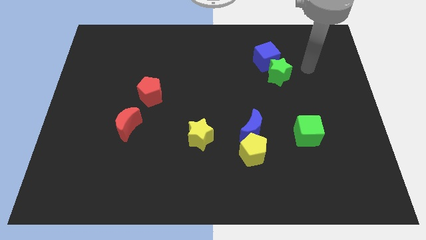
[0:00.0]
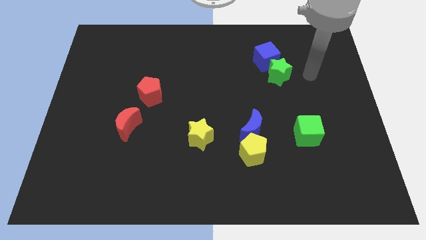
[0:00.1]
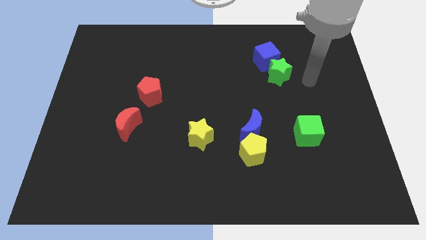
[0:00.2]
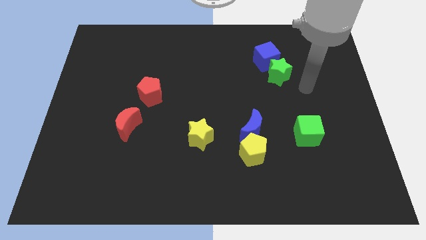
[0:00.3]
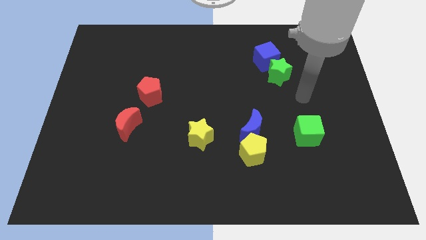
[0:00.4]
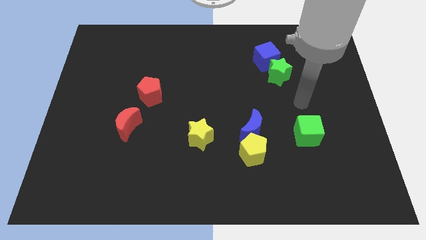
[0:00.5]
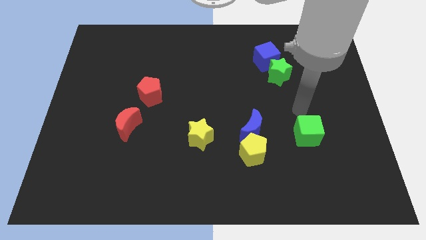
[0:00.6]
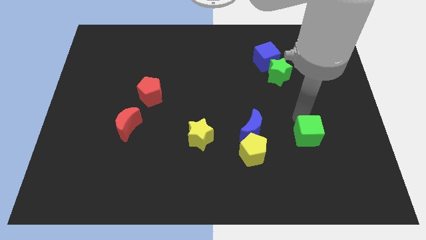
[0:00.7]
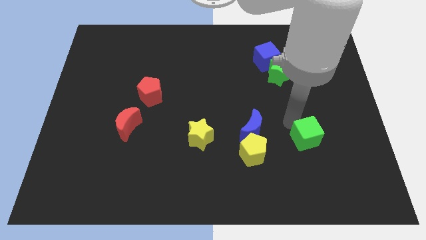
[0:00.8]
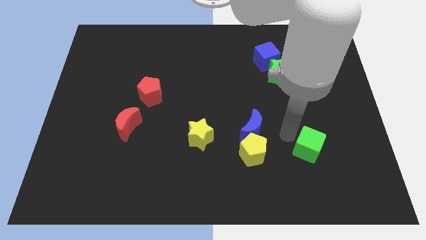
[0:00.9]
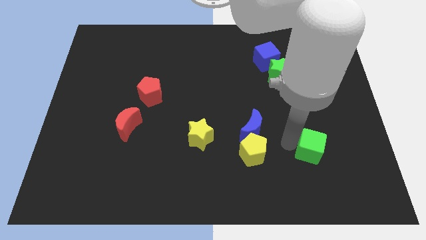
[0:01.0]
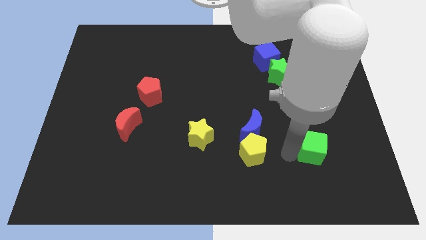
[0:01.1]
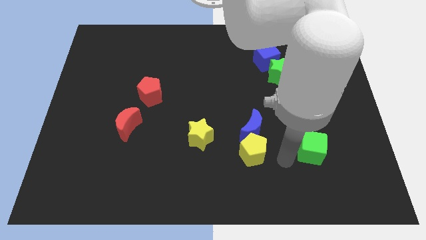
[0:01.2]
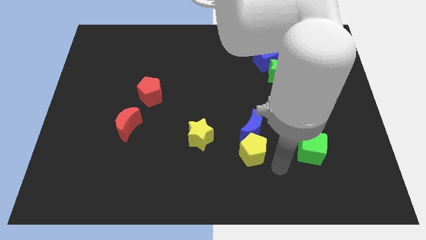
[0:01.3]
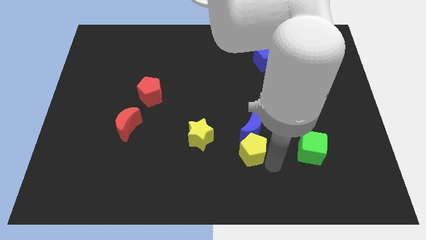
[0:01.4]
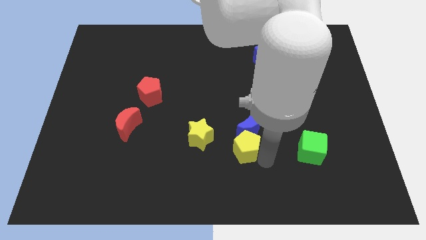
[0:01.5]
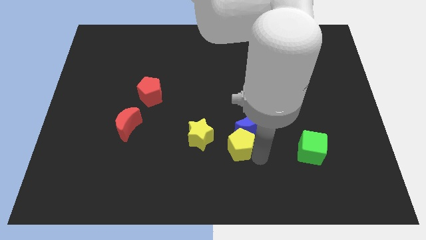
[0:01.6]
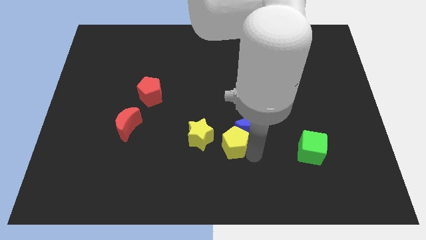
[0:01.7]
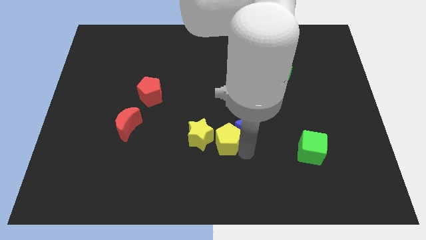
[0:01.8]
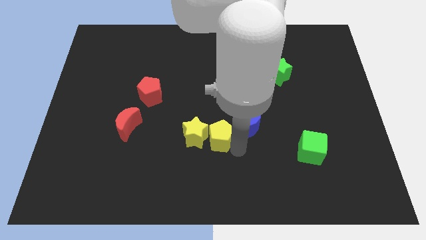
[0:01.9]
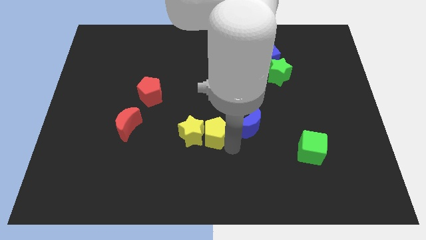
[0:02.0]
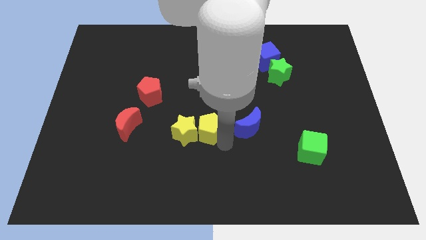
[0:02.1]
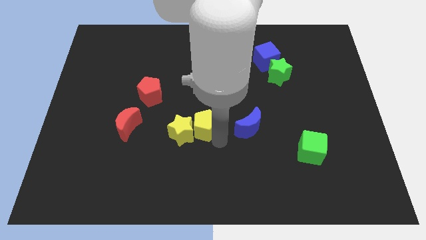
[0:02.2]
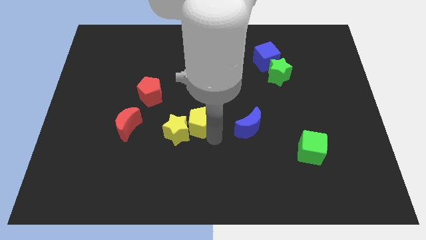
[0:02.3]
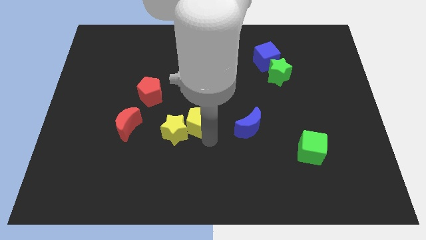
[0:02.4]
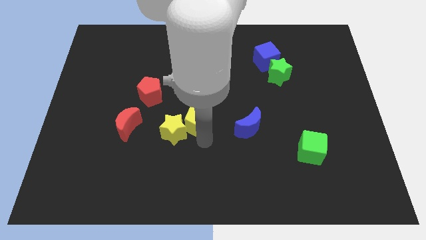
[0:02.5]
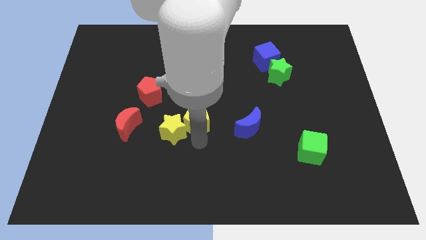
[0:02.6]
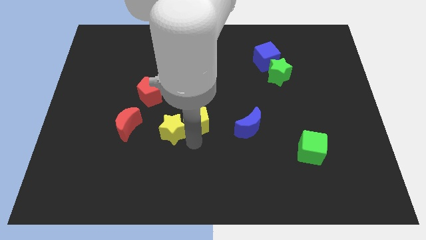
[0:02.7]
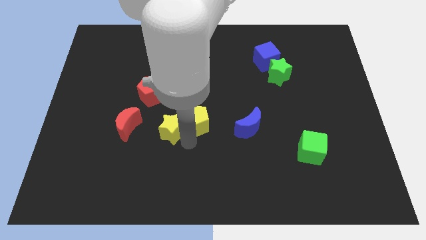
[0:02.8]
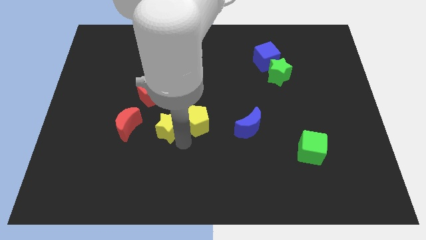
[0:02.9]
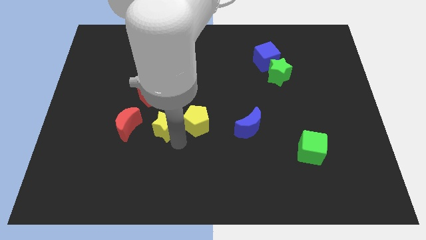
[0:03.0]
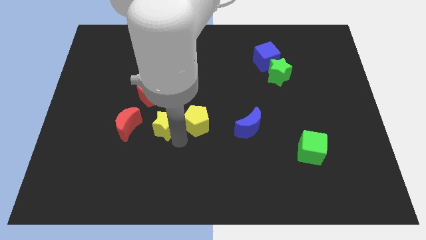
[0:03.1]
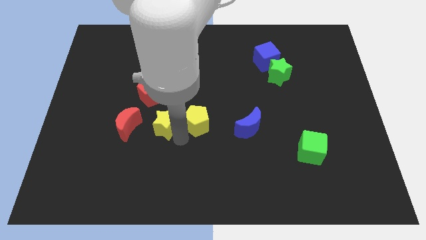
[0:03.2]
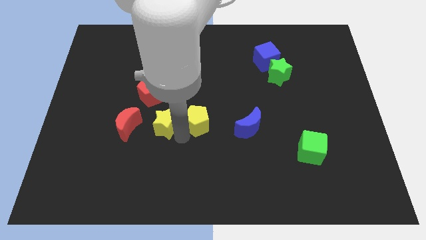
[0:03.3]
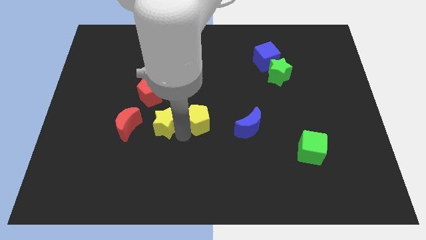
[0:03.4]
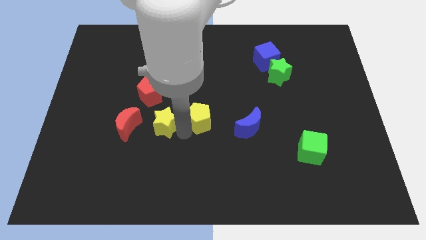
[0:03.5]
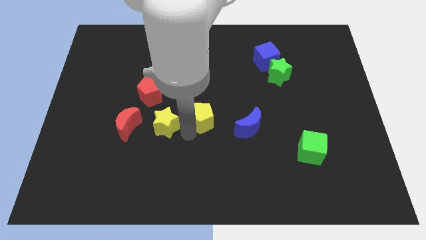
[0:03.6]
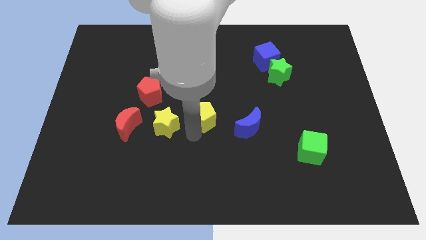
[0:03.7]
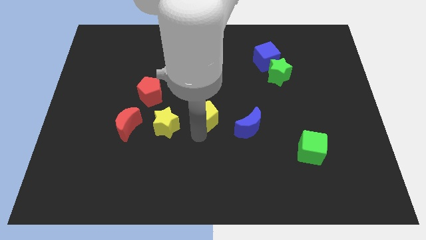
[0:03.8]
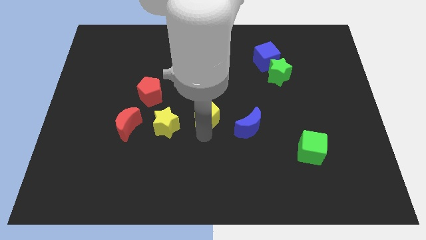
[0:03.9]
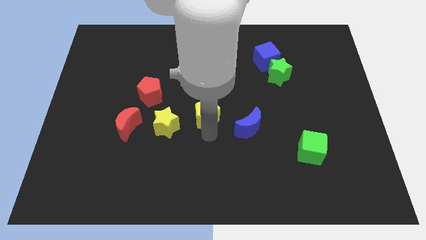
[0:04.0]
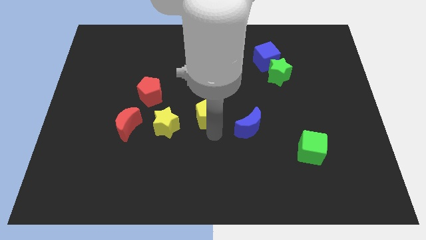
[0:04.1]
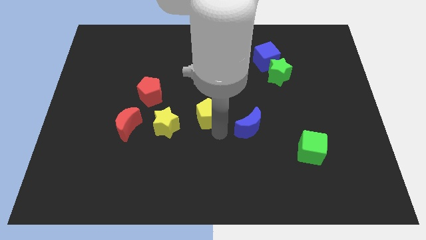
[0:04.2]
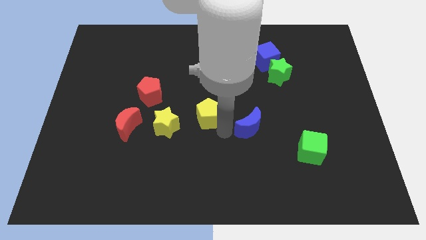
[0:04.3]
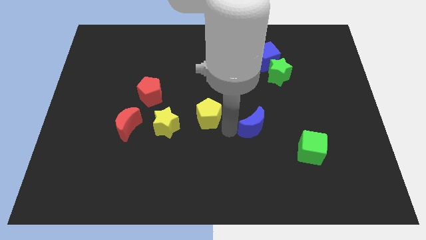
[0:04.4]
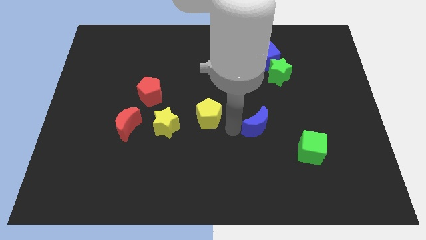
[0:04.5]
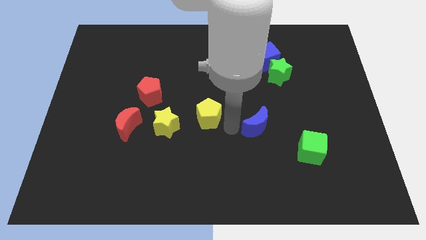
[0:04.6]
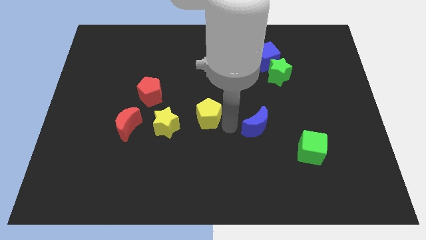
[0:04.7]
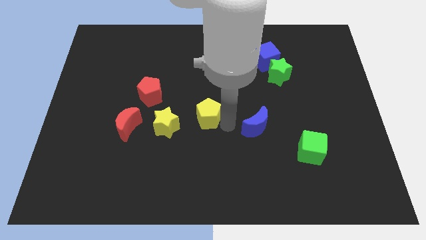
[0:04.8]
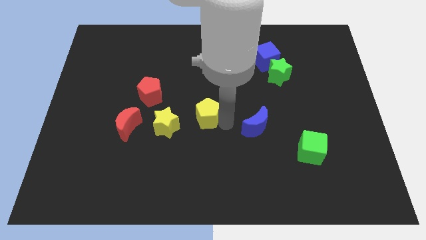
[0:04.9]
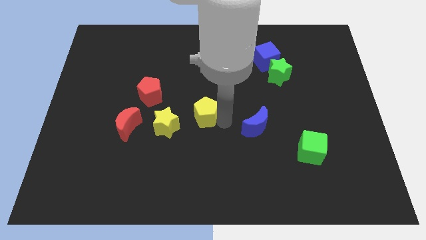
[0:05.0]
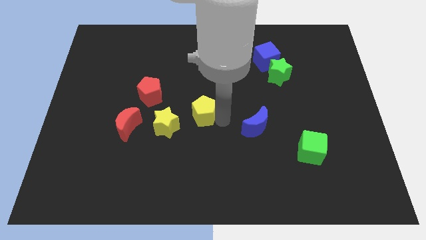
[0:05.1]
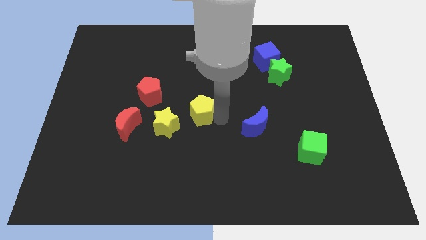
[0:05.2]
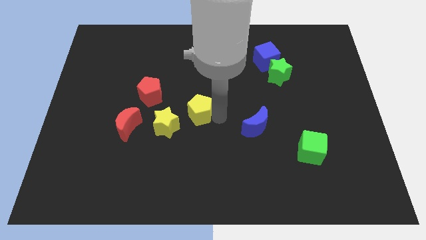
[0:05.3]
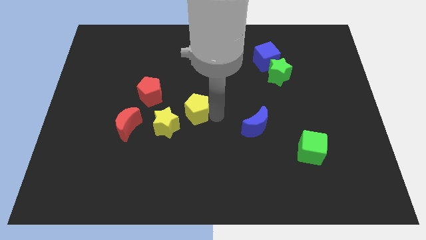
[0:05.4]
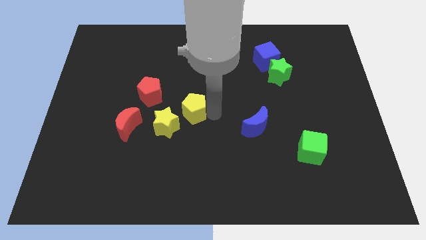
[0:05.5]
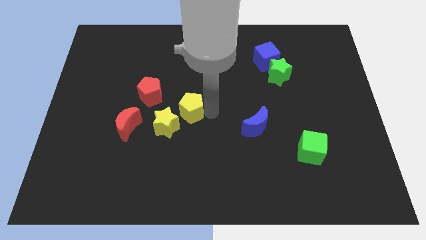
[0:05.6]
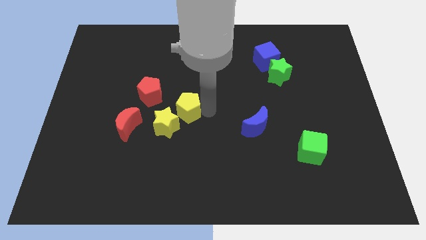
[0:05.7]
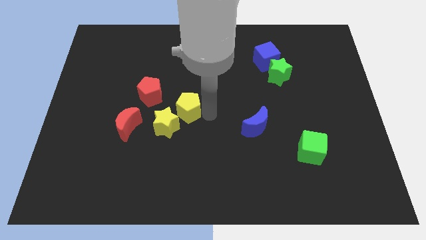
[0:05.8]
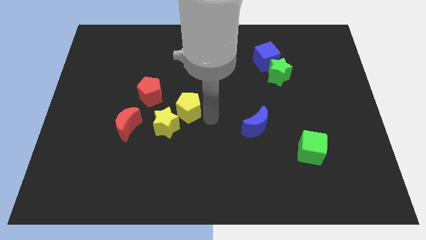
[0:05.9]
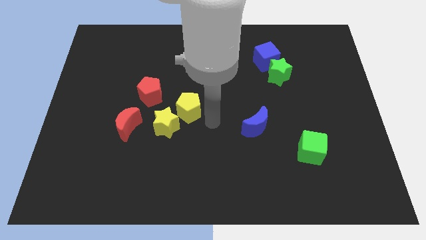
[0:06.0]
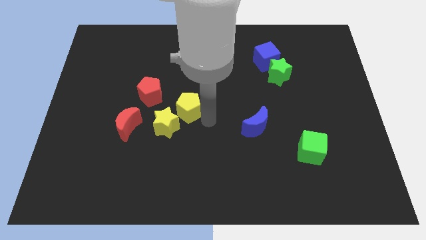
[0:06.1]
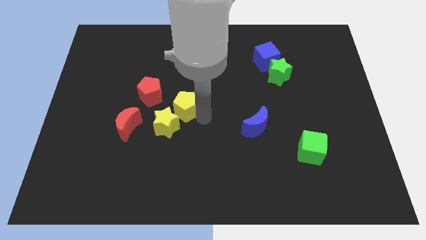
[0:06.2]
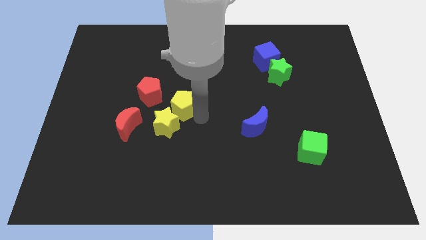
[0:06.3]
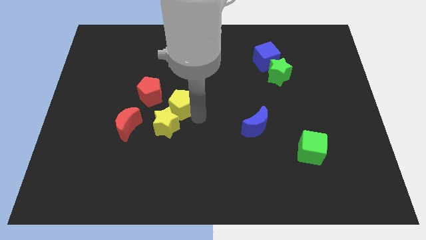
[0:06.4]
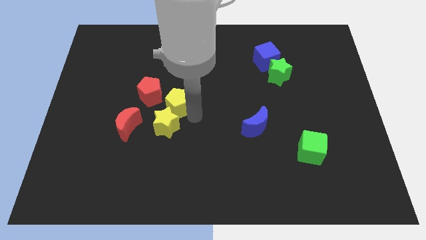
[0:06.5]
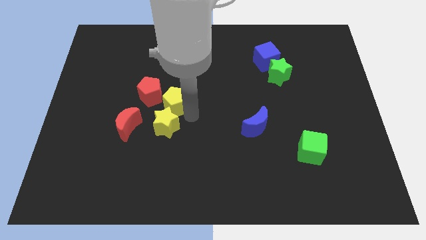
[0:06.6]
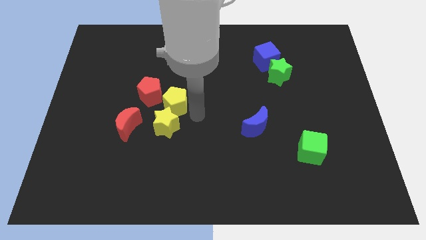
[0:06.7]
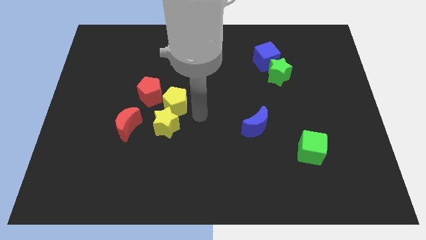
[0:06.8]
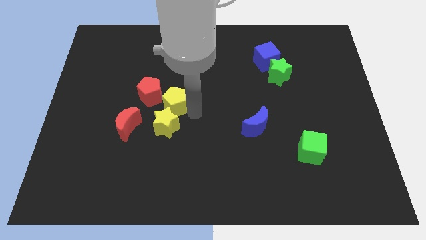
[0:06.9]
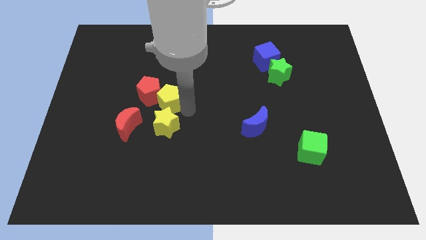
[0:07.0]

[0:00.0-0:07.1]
slide the yellow pentagon towards the red pentagon

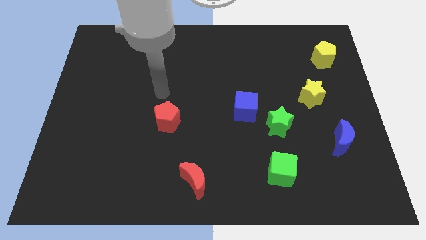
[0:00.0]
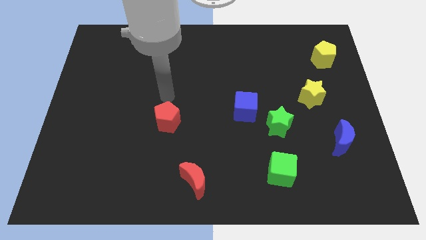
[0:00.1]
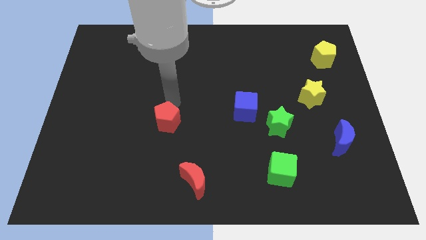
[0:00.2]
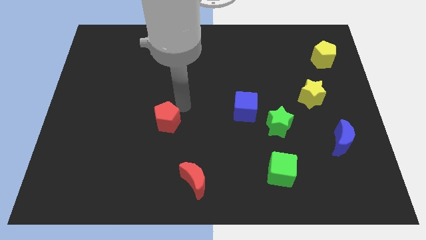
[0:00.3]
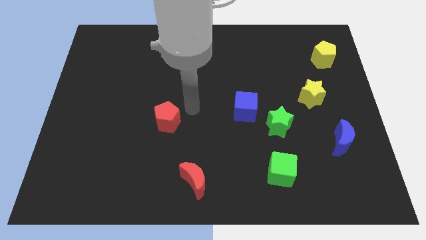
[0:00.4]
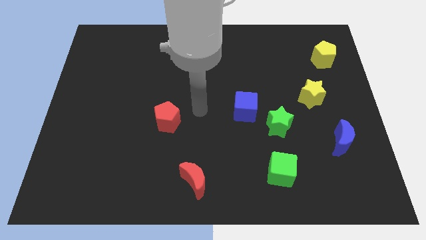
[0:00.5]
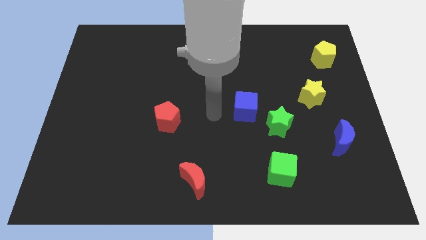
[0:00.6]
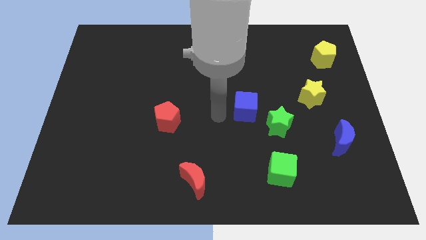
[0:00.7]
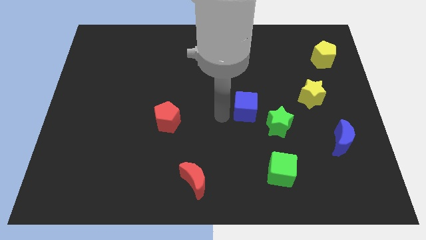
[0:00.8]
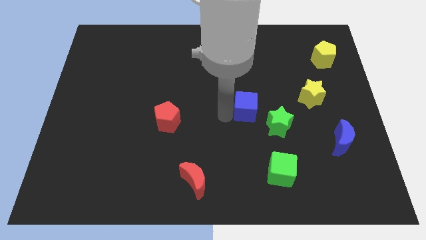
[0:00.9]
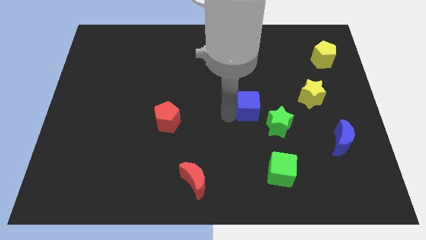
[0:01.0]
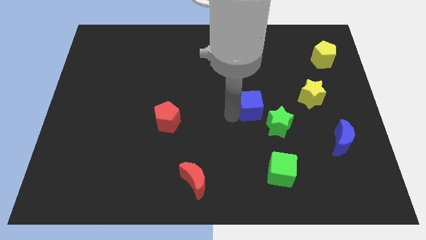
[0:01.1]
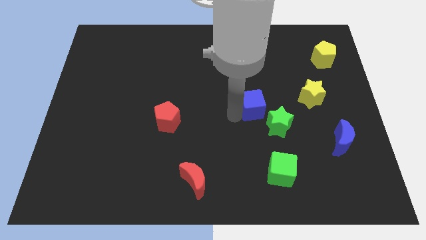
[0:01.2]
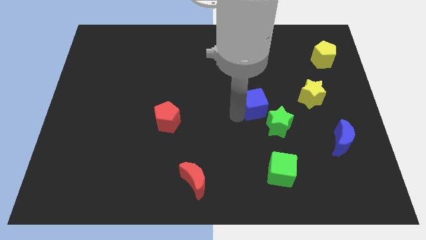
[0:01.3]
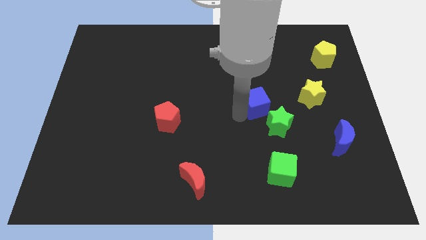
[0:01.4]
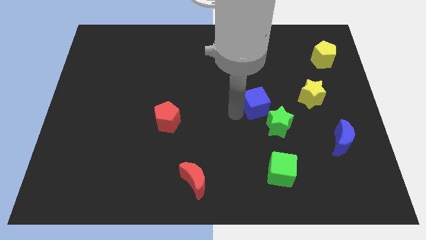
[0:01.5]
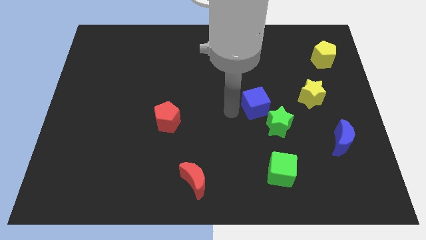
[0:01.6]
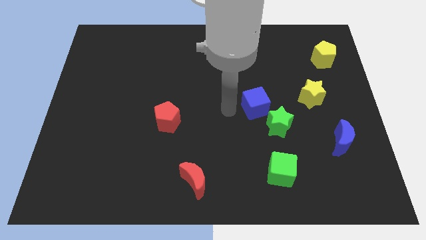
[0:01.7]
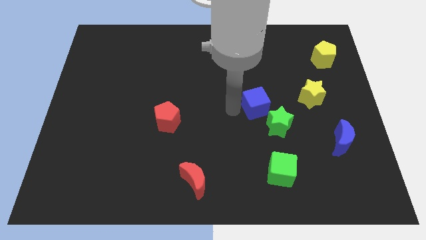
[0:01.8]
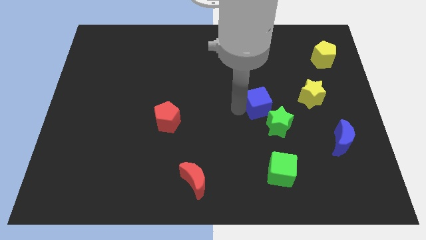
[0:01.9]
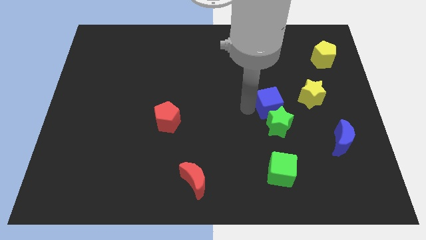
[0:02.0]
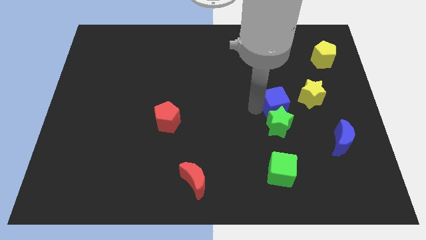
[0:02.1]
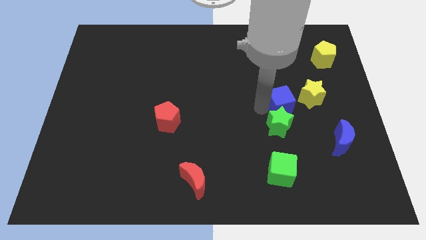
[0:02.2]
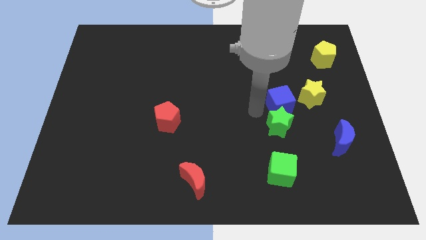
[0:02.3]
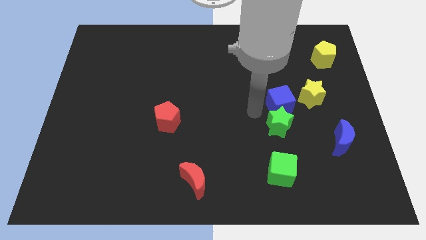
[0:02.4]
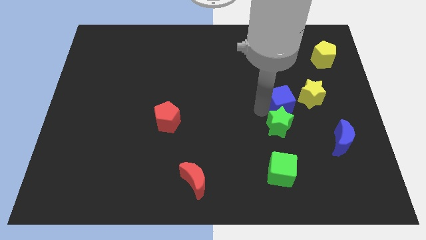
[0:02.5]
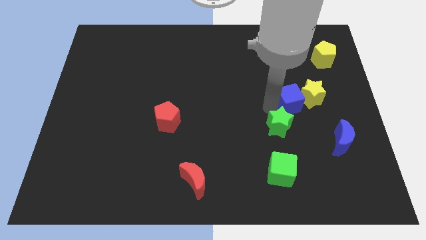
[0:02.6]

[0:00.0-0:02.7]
move the blue cube next to the yellow star
